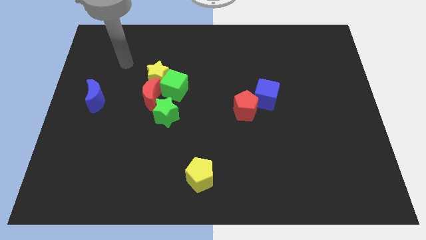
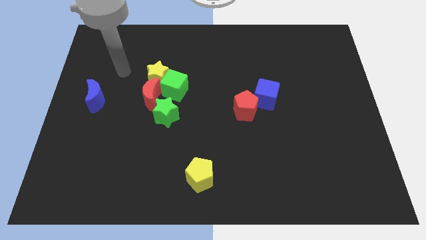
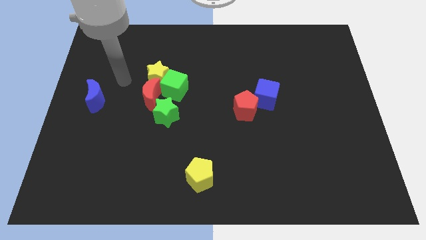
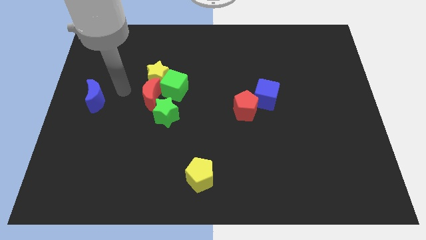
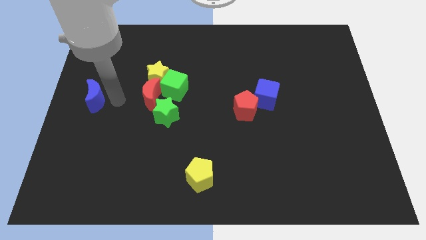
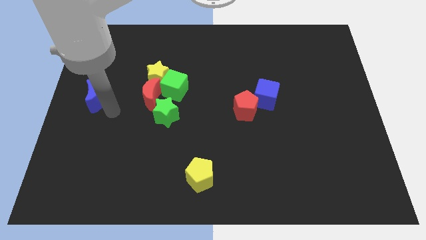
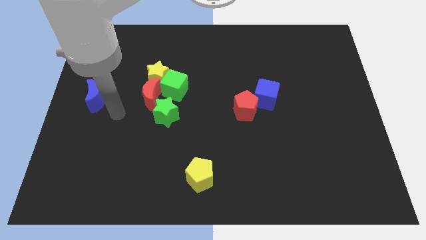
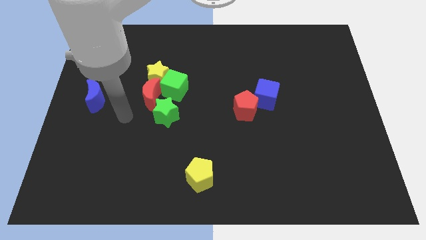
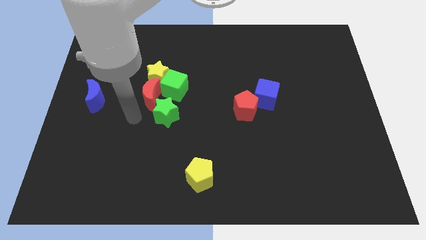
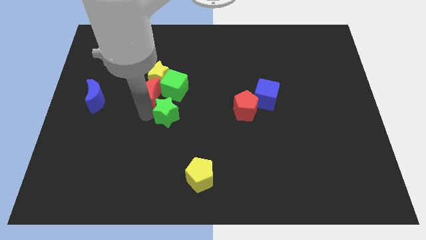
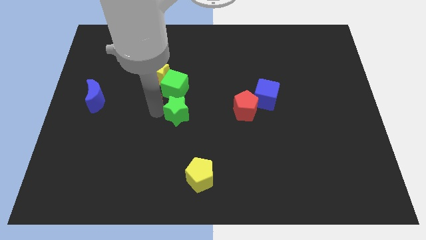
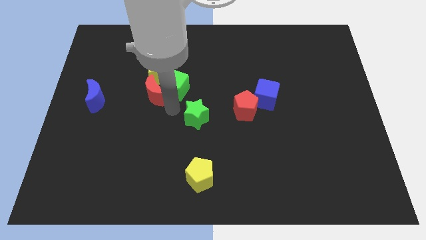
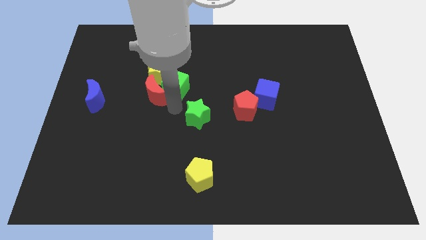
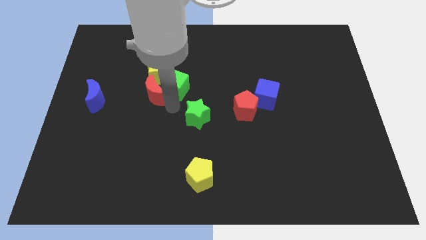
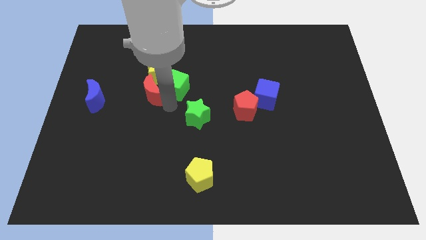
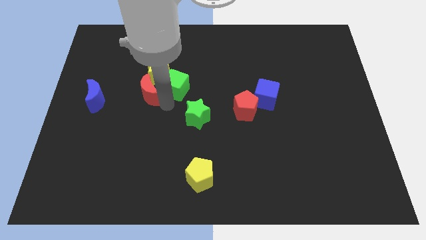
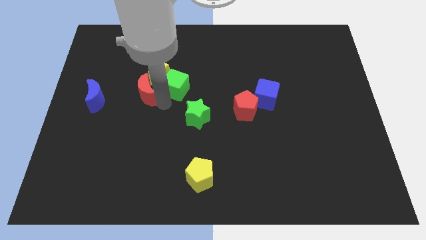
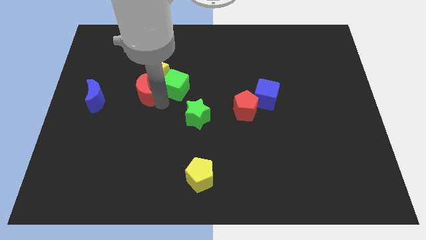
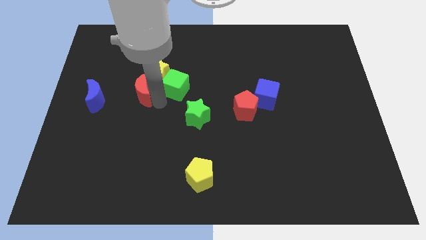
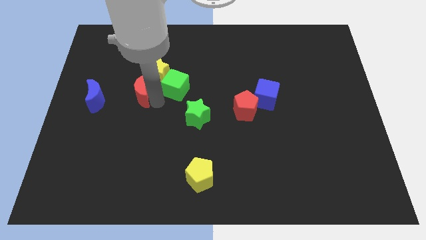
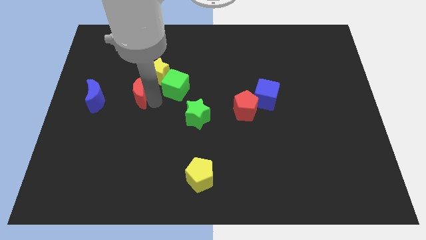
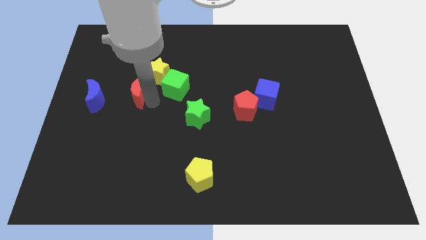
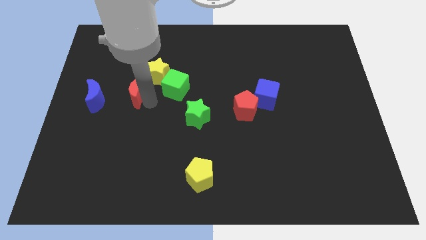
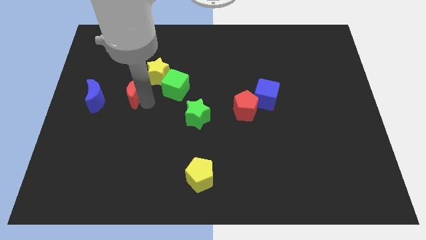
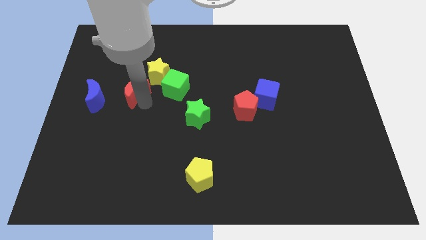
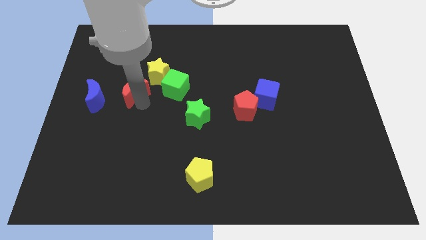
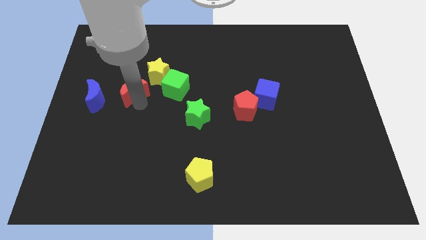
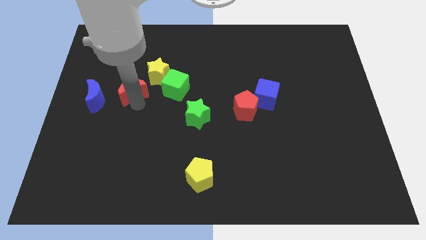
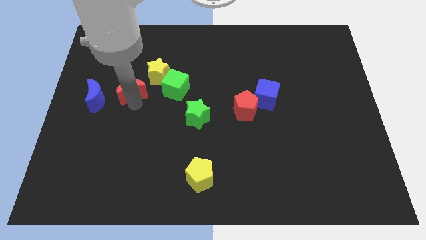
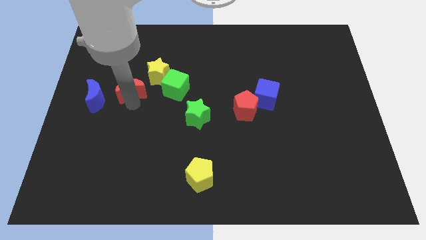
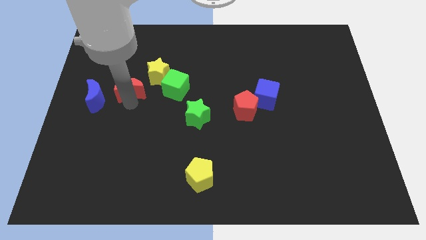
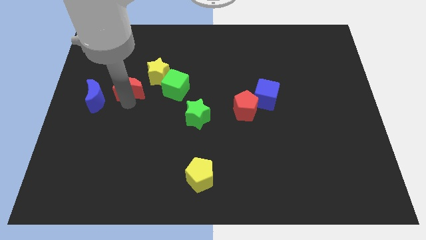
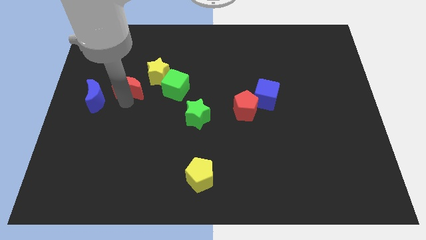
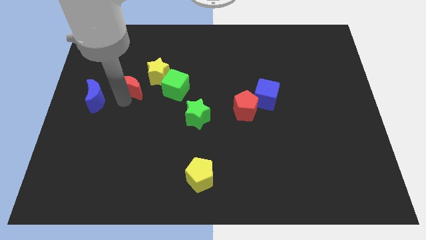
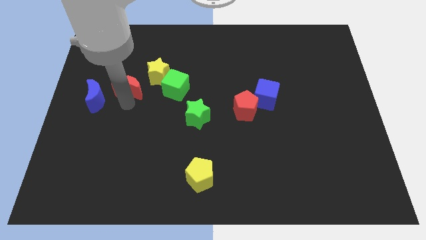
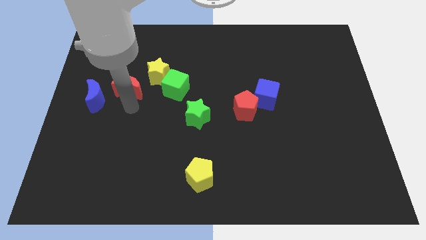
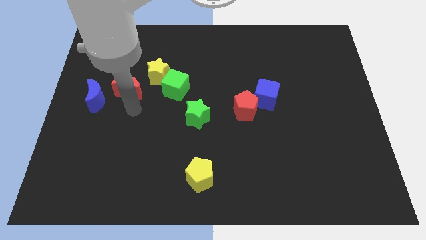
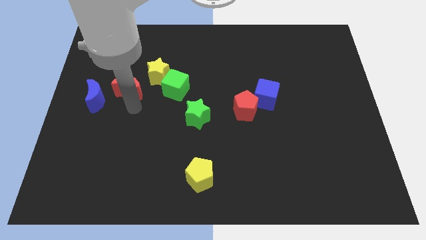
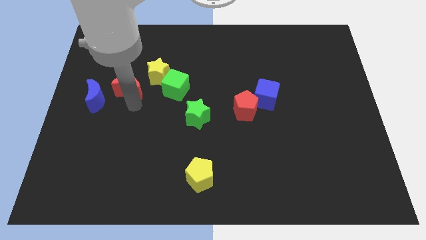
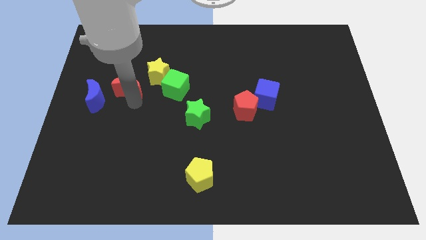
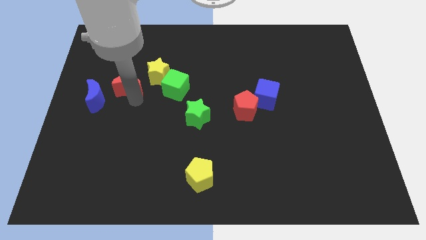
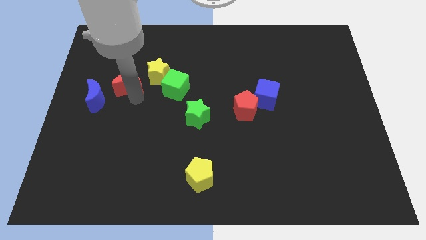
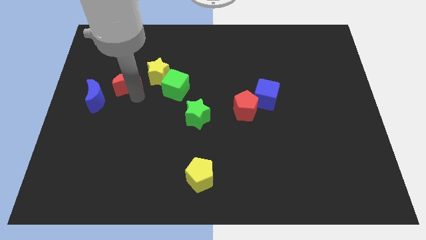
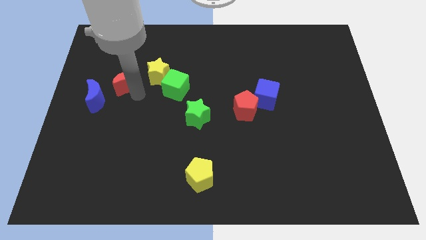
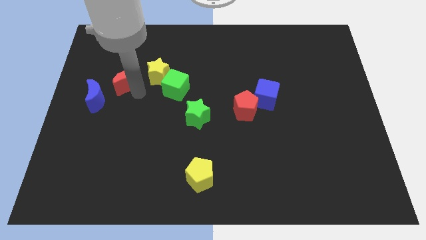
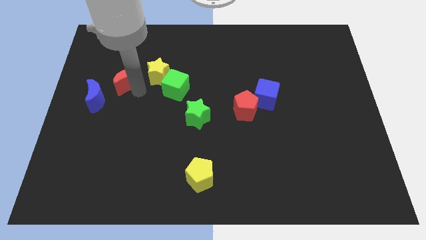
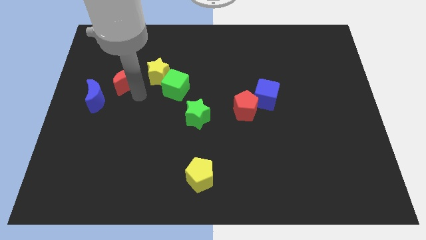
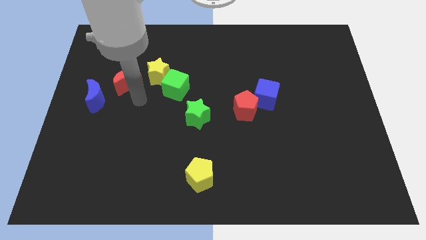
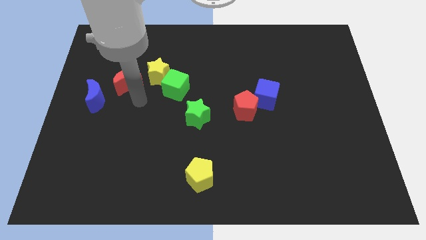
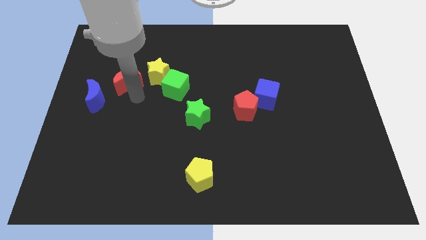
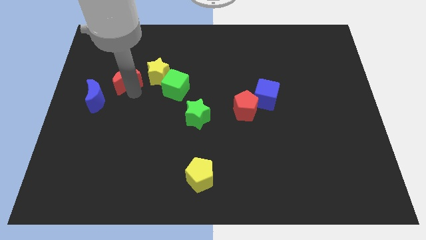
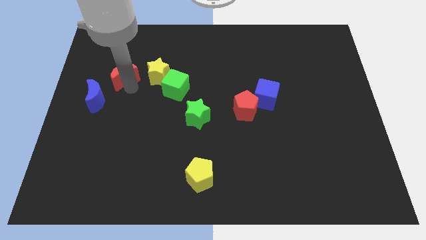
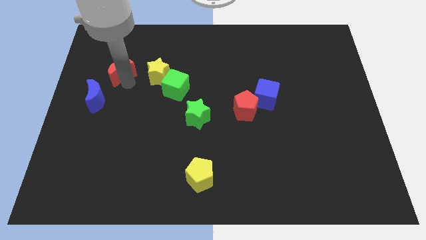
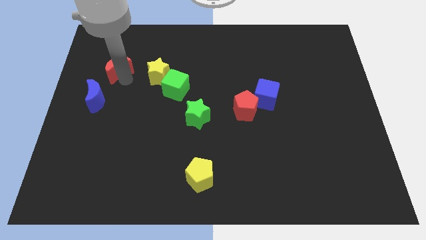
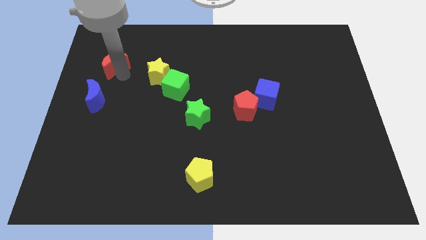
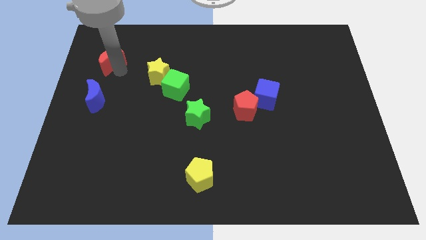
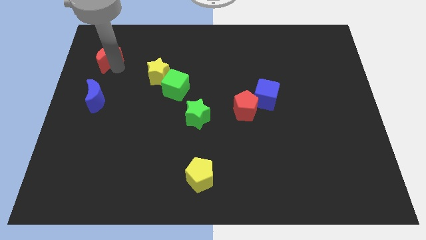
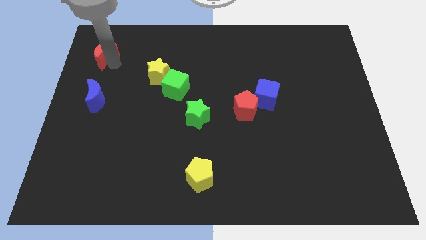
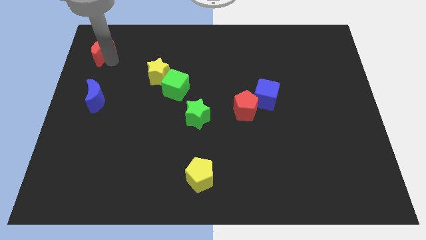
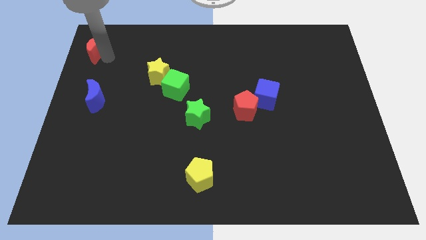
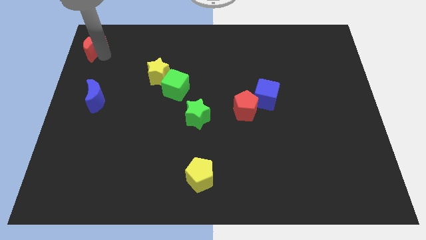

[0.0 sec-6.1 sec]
slide the red moon to the upper left corner
